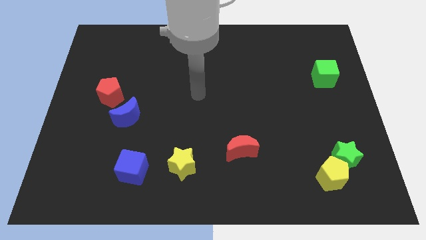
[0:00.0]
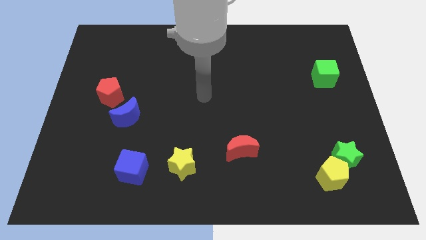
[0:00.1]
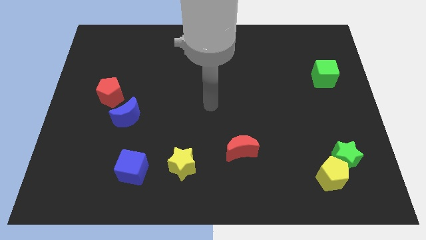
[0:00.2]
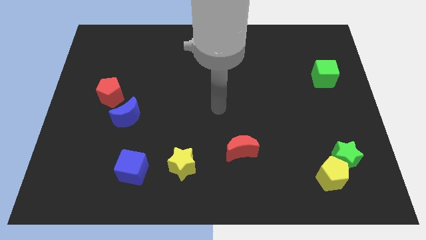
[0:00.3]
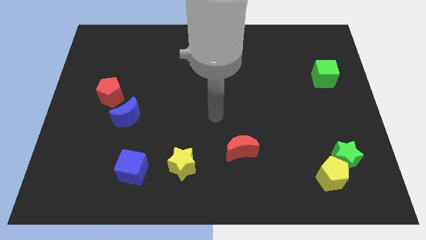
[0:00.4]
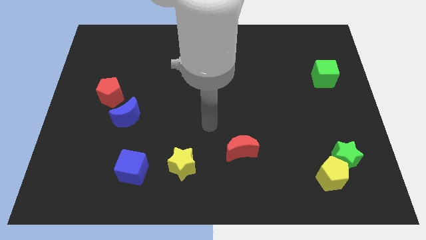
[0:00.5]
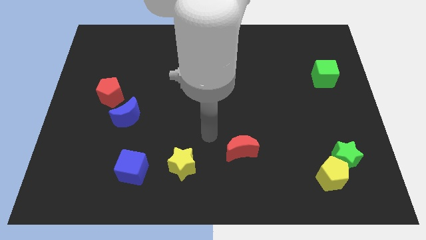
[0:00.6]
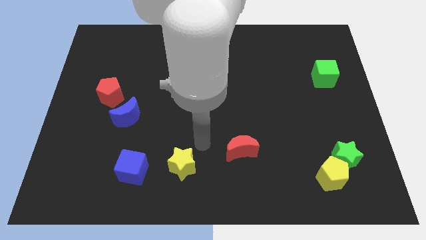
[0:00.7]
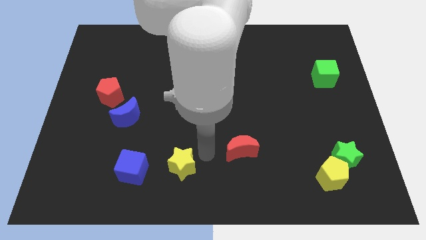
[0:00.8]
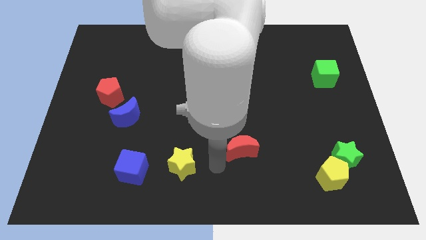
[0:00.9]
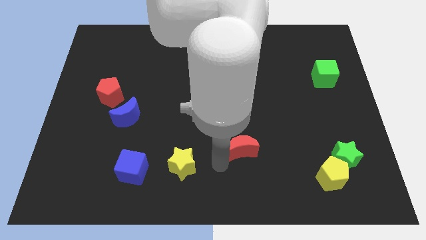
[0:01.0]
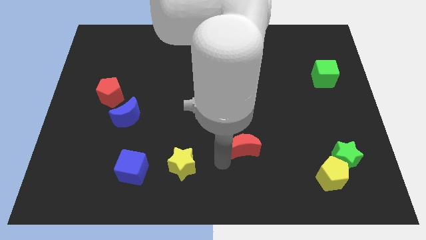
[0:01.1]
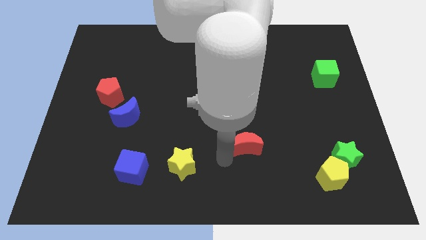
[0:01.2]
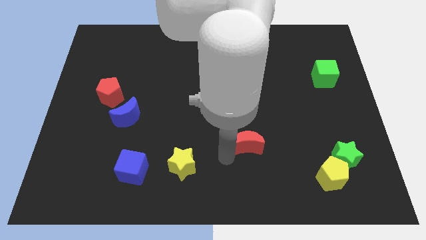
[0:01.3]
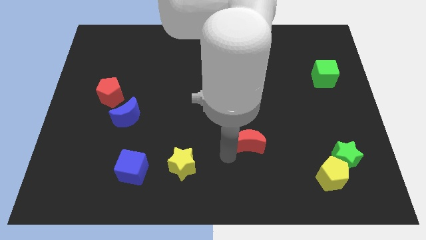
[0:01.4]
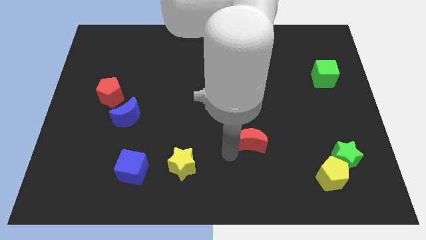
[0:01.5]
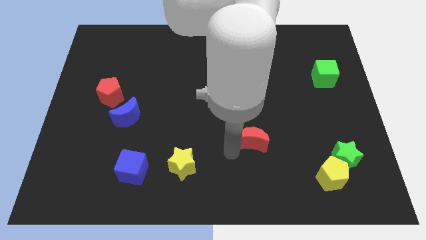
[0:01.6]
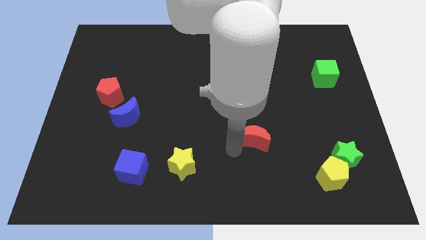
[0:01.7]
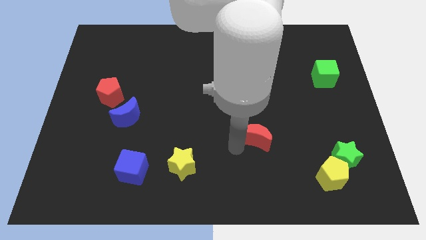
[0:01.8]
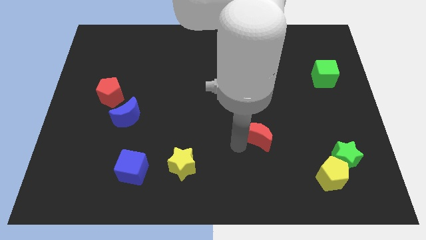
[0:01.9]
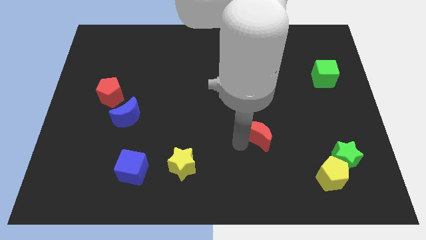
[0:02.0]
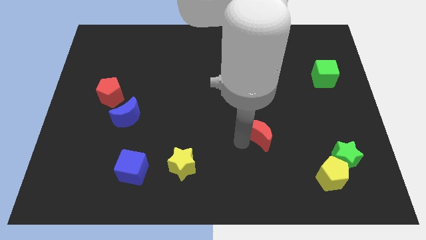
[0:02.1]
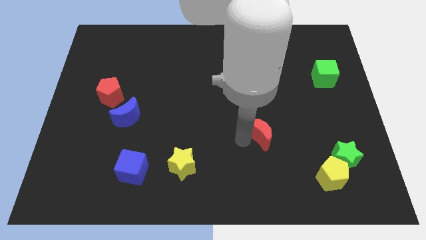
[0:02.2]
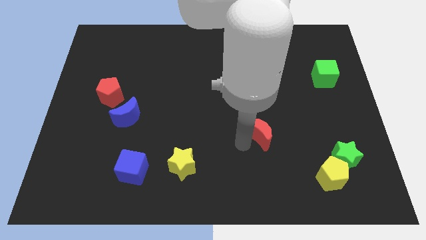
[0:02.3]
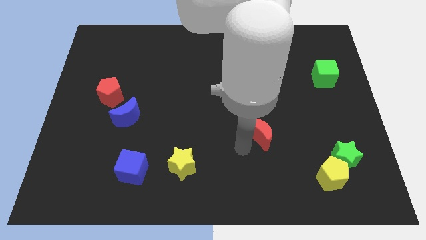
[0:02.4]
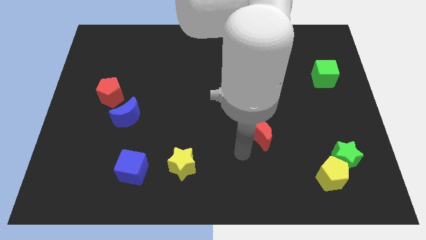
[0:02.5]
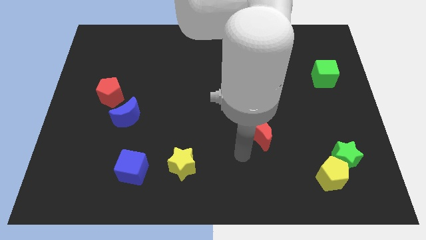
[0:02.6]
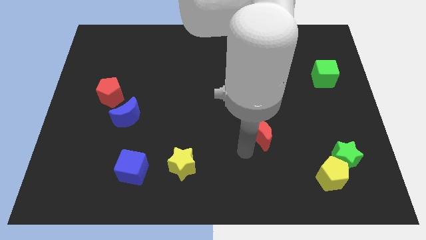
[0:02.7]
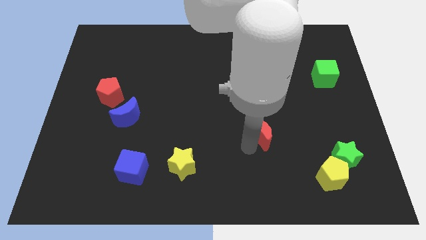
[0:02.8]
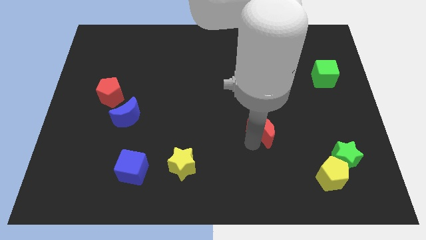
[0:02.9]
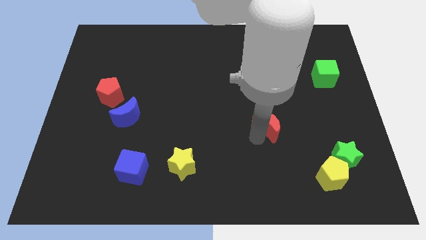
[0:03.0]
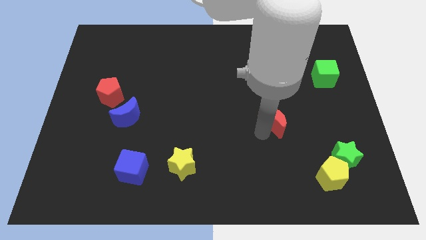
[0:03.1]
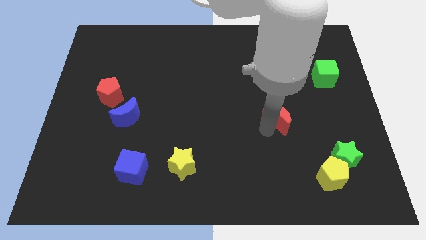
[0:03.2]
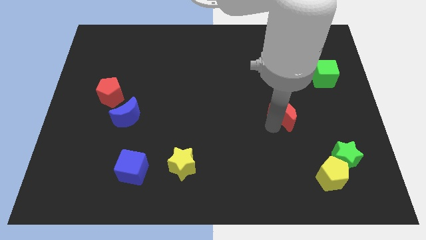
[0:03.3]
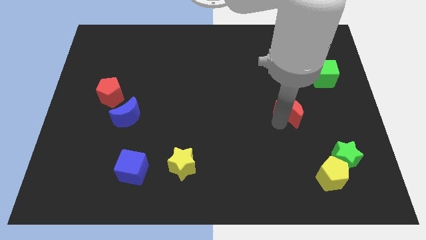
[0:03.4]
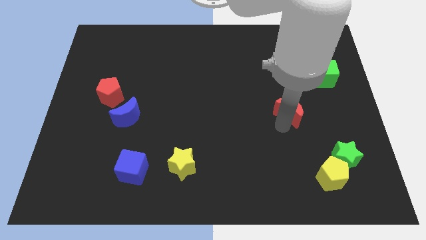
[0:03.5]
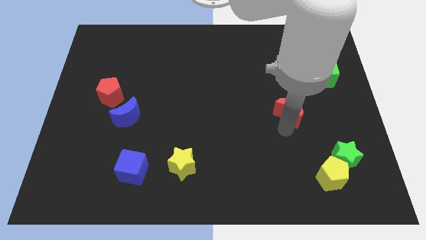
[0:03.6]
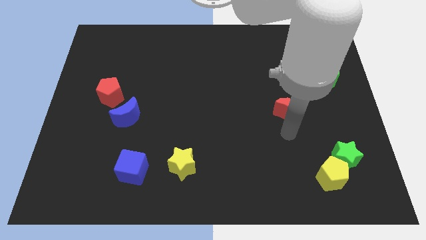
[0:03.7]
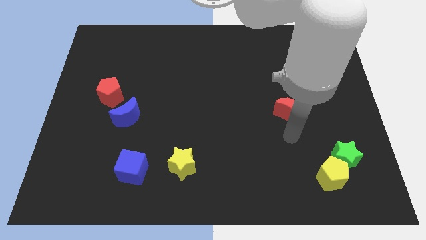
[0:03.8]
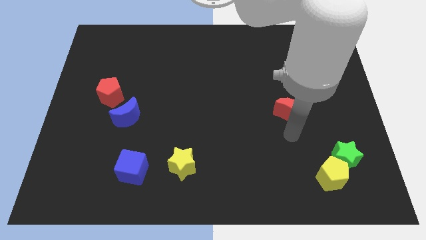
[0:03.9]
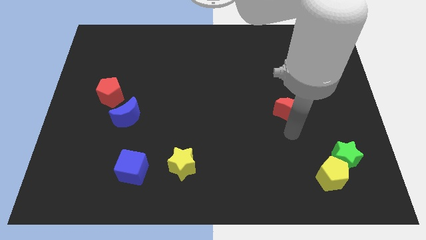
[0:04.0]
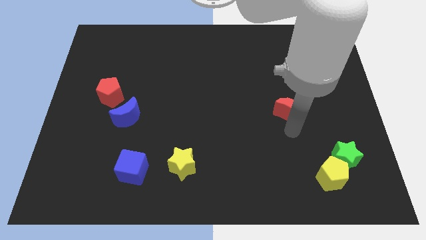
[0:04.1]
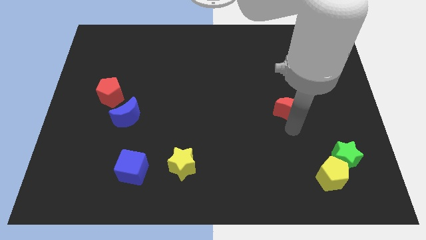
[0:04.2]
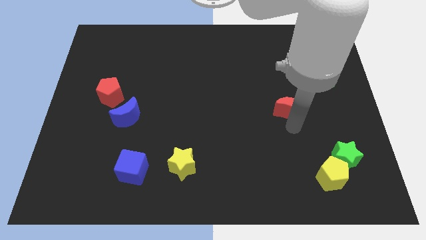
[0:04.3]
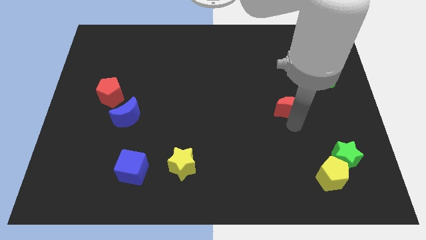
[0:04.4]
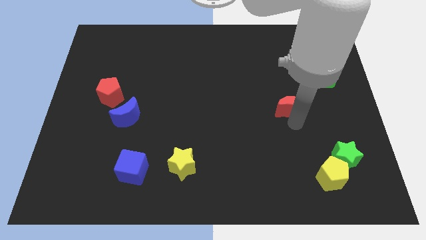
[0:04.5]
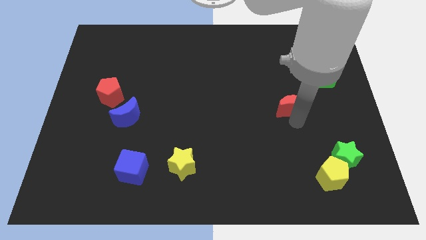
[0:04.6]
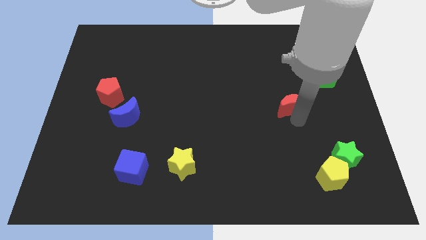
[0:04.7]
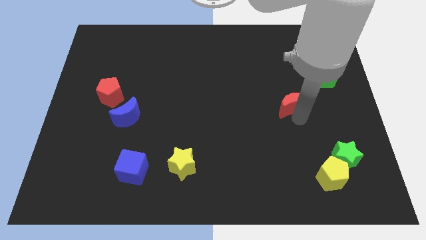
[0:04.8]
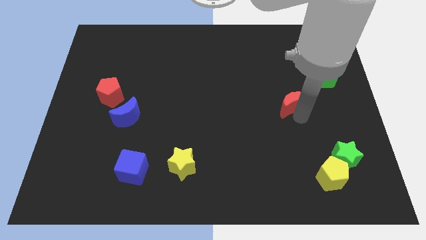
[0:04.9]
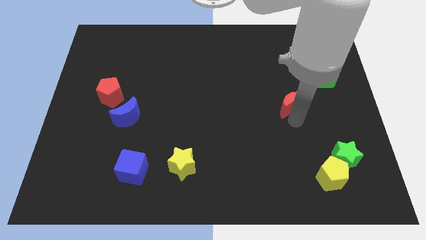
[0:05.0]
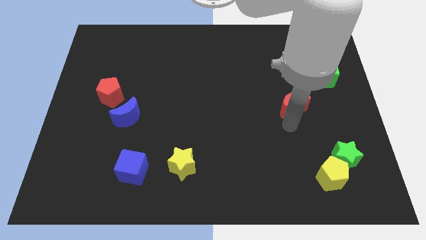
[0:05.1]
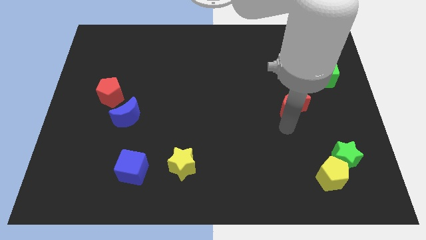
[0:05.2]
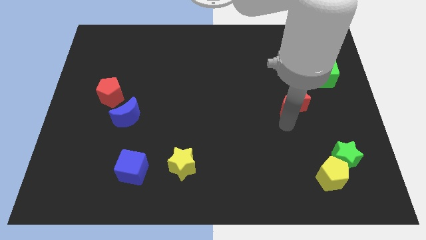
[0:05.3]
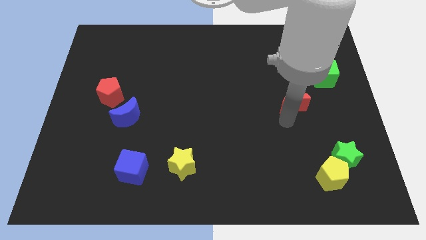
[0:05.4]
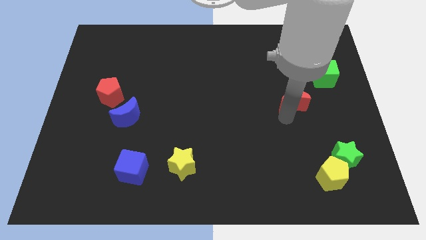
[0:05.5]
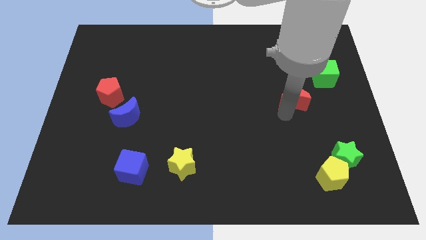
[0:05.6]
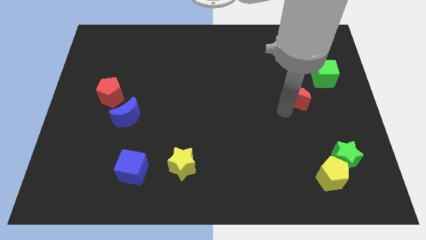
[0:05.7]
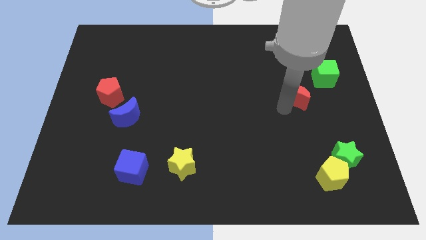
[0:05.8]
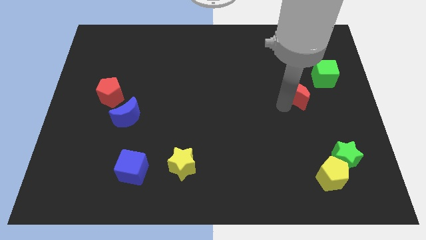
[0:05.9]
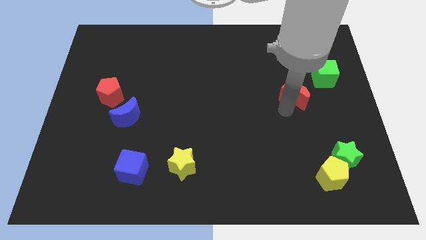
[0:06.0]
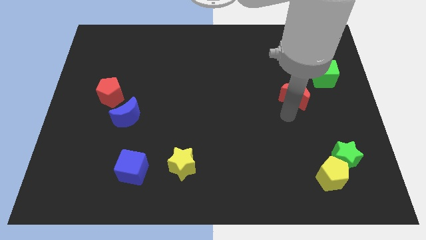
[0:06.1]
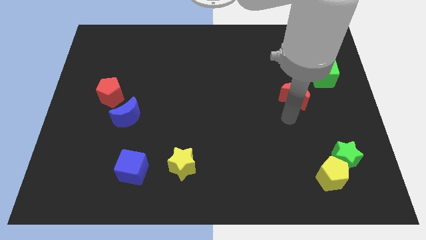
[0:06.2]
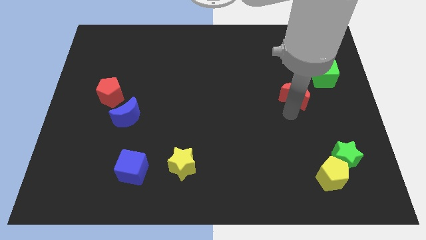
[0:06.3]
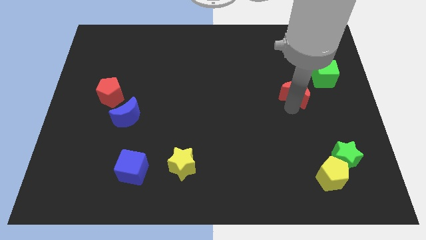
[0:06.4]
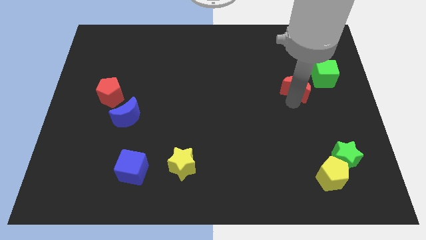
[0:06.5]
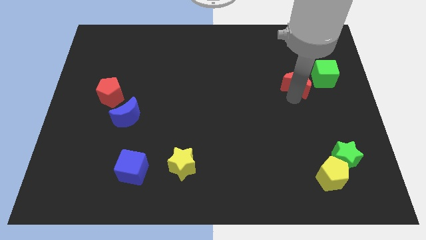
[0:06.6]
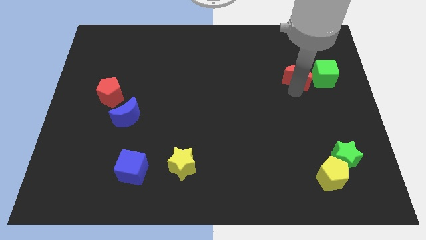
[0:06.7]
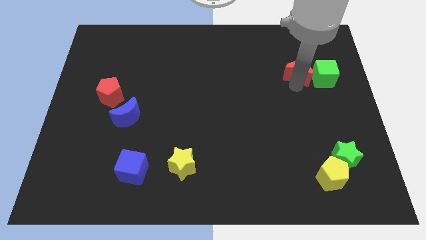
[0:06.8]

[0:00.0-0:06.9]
put the red moon to the top left of the green cube
